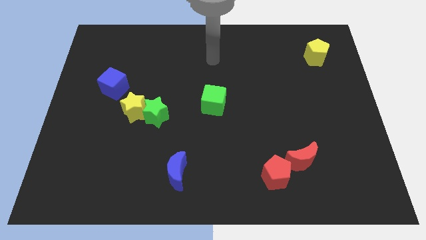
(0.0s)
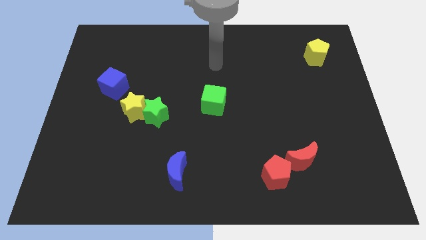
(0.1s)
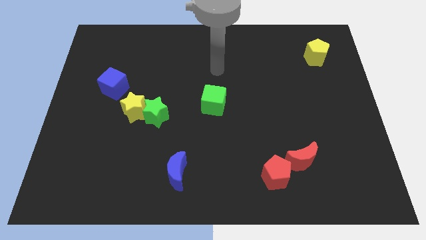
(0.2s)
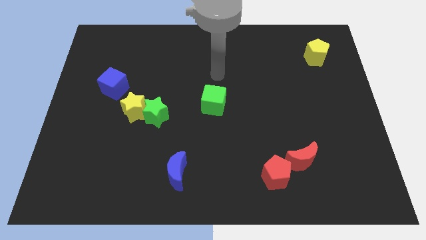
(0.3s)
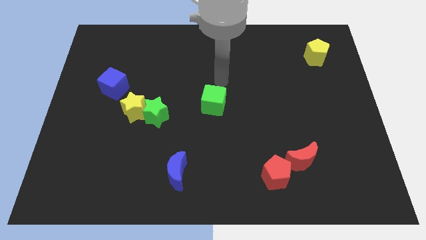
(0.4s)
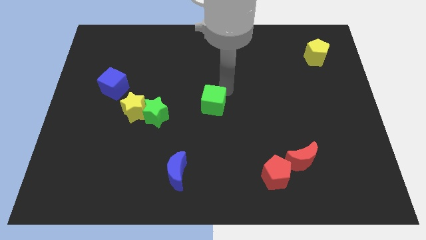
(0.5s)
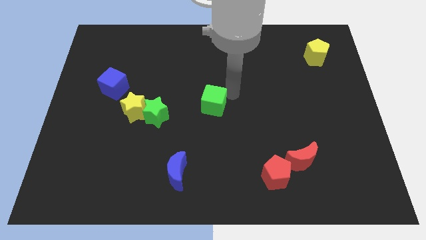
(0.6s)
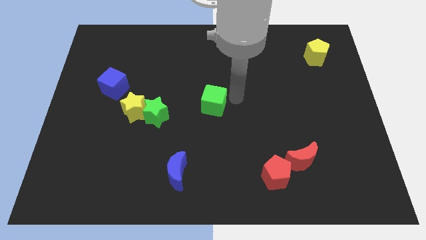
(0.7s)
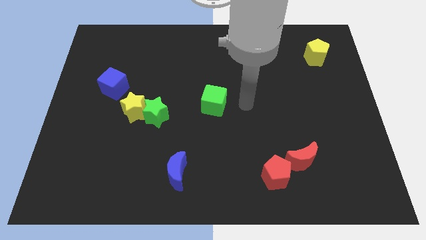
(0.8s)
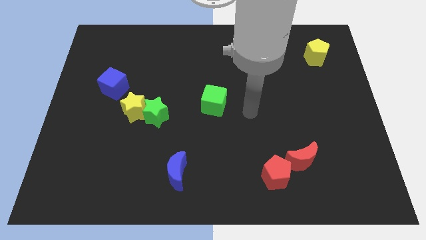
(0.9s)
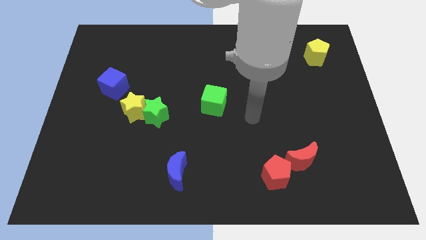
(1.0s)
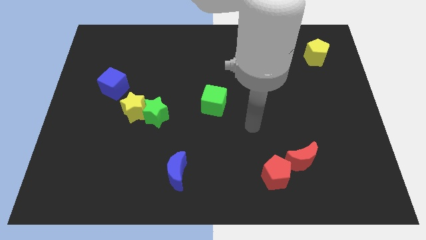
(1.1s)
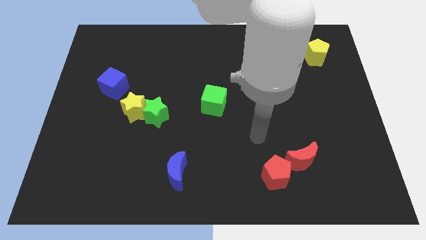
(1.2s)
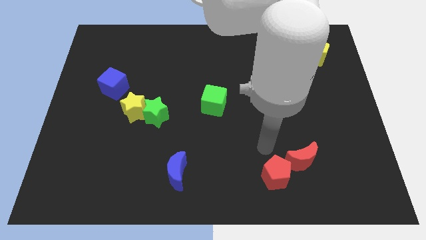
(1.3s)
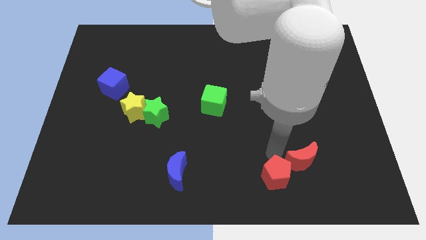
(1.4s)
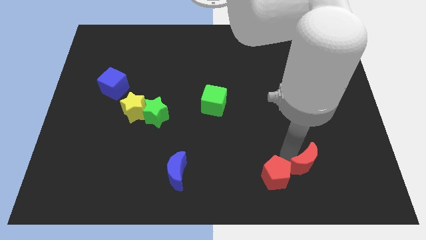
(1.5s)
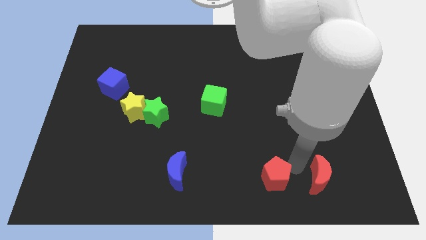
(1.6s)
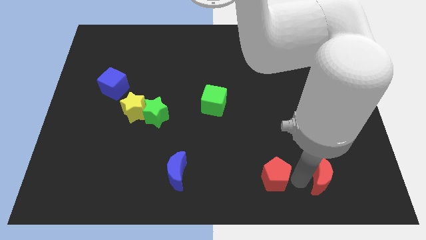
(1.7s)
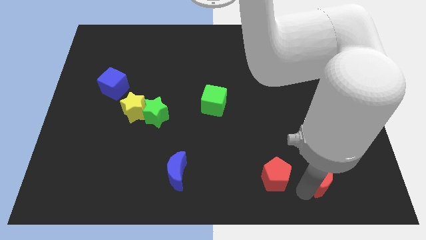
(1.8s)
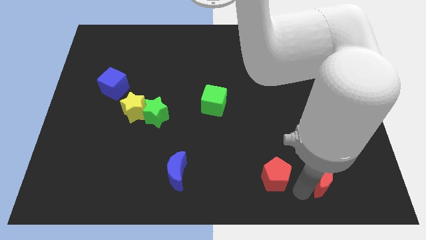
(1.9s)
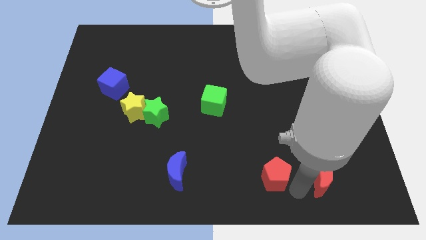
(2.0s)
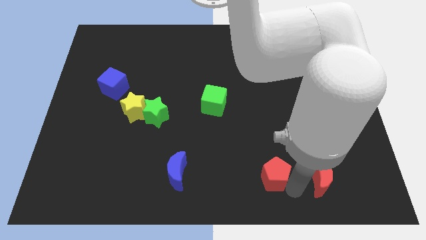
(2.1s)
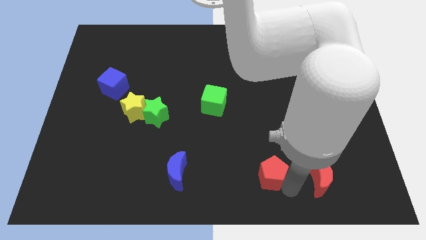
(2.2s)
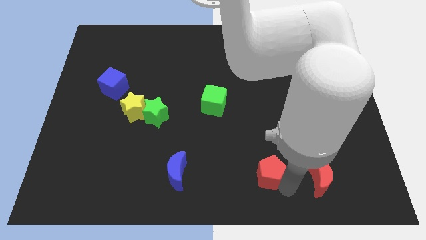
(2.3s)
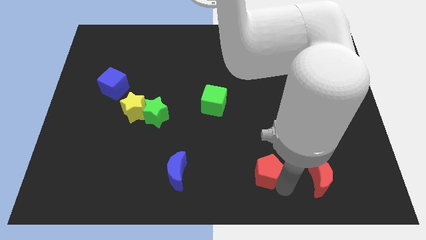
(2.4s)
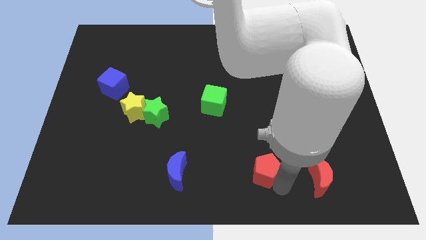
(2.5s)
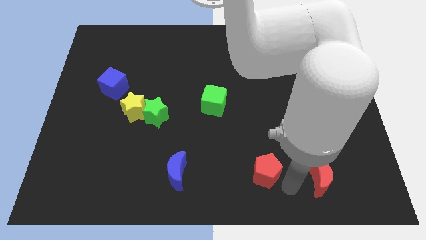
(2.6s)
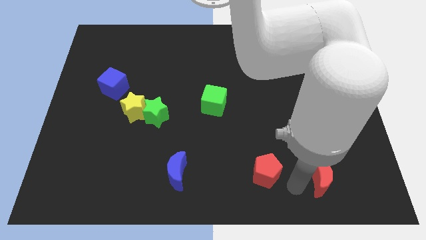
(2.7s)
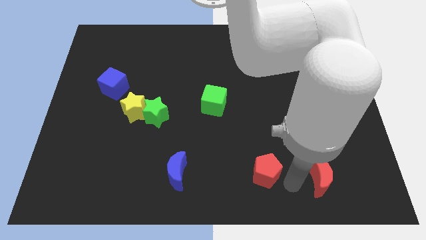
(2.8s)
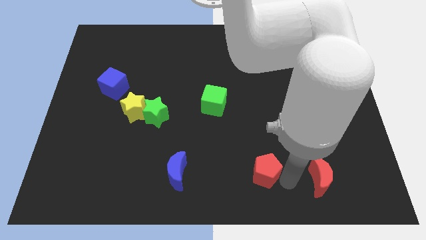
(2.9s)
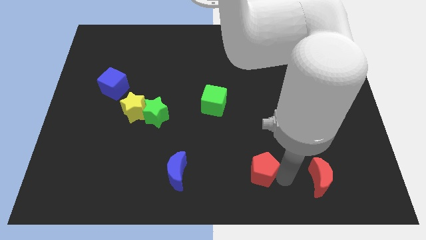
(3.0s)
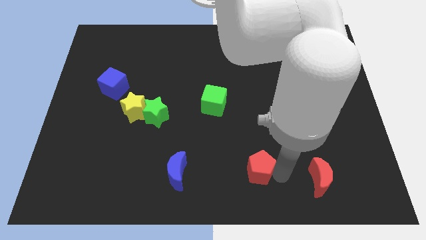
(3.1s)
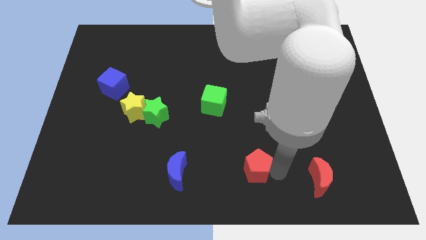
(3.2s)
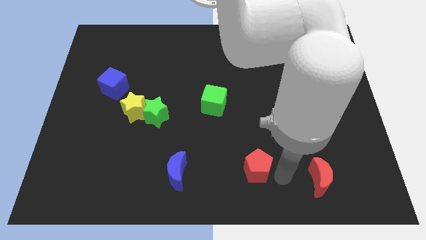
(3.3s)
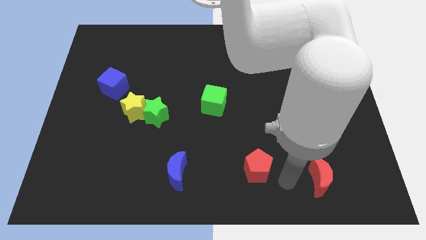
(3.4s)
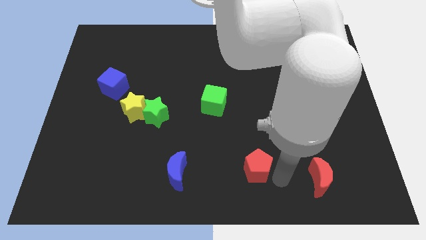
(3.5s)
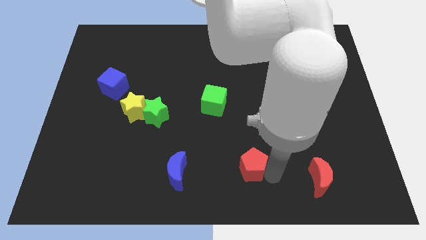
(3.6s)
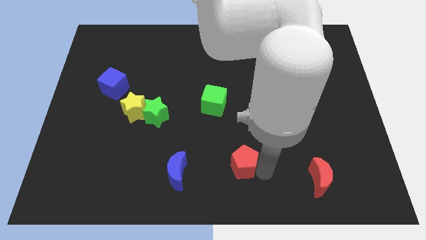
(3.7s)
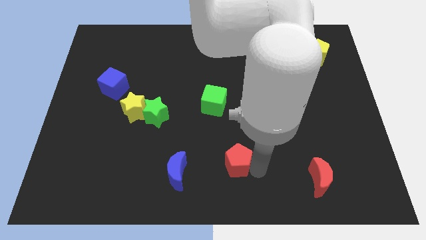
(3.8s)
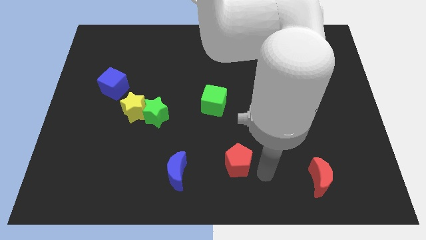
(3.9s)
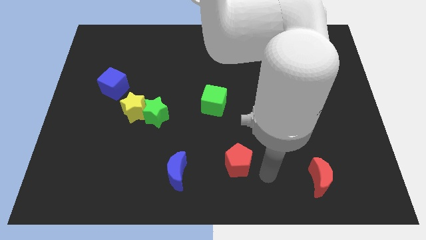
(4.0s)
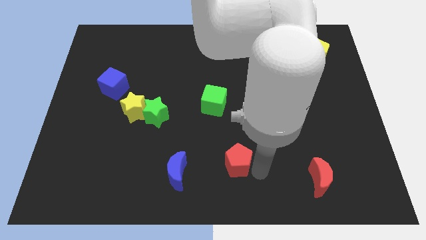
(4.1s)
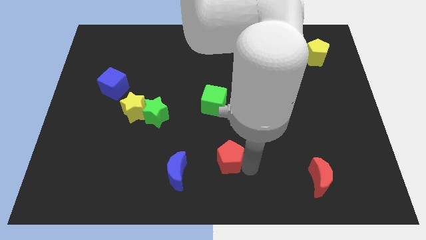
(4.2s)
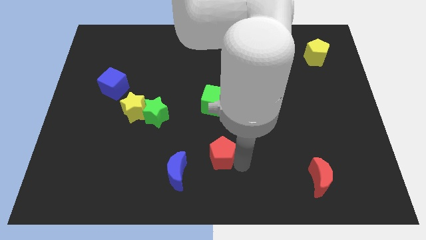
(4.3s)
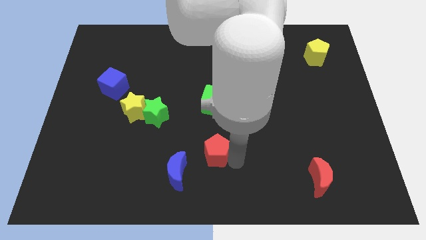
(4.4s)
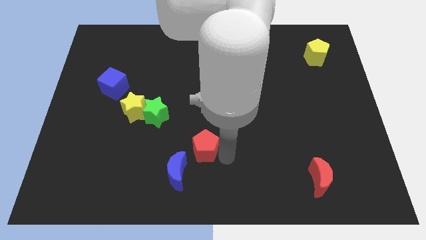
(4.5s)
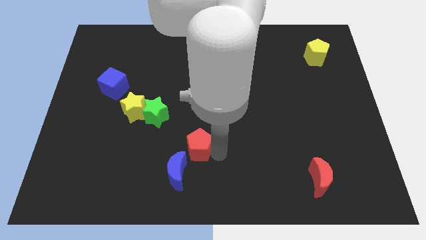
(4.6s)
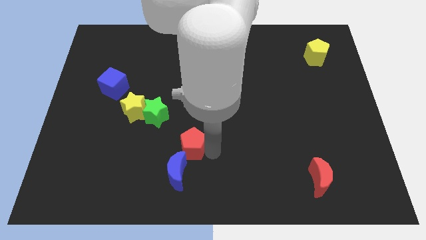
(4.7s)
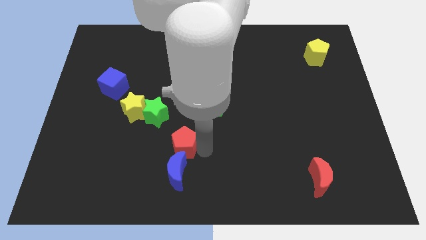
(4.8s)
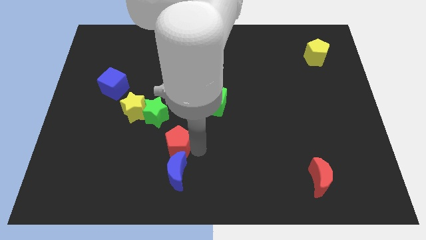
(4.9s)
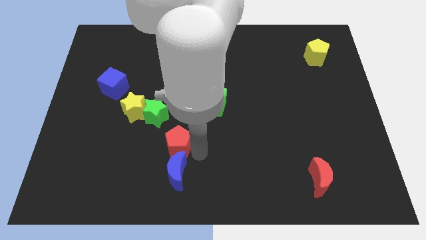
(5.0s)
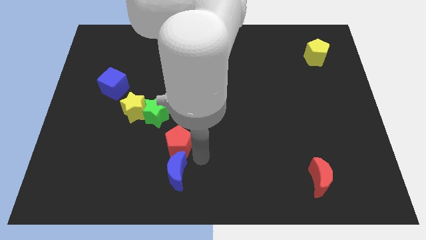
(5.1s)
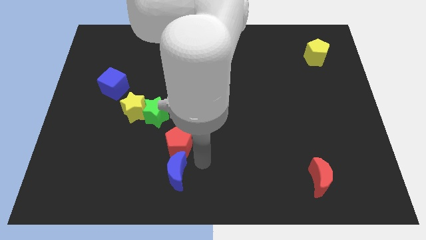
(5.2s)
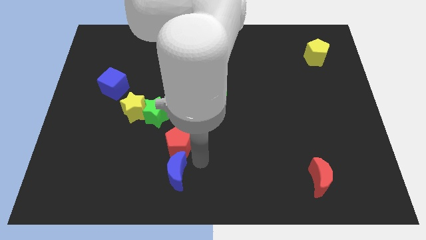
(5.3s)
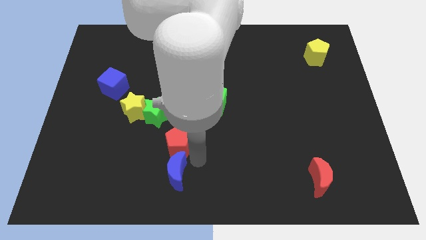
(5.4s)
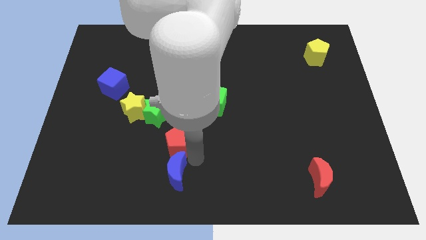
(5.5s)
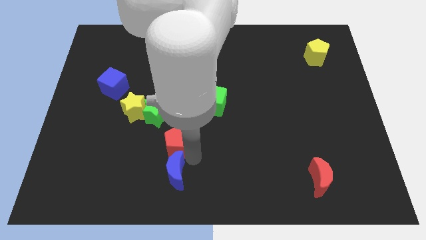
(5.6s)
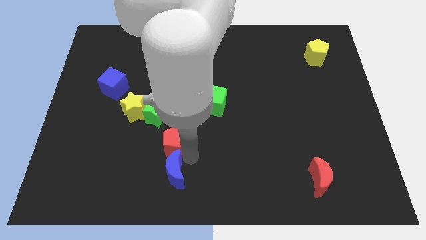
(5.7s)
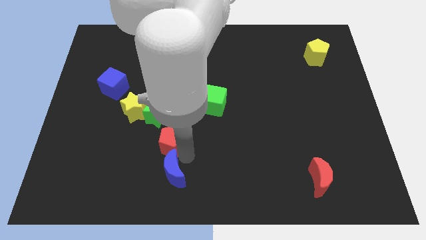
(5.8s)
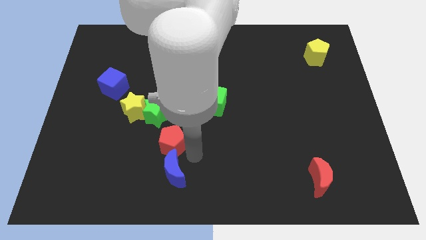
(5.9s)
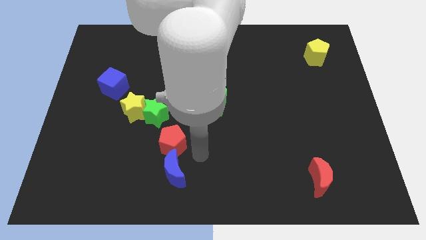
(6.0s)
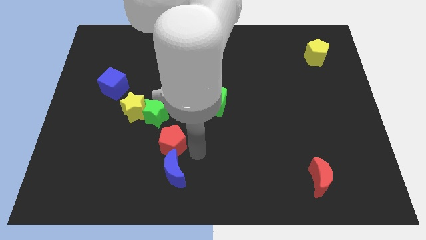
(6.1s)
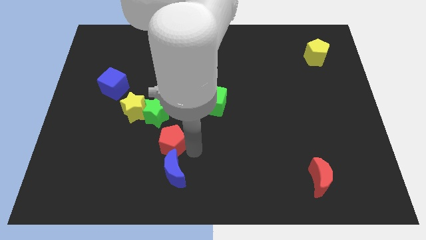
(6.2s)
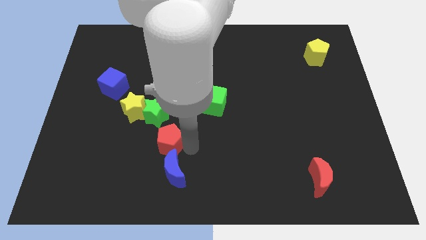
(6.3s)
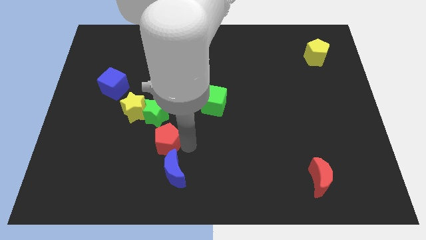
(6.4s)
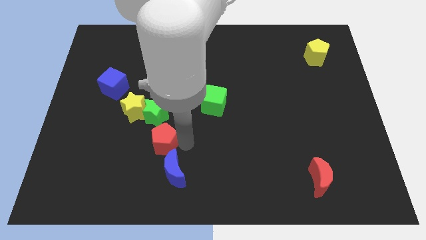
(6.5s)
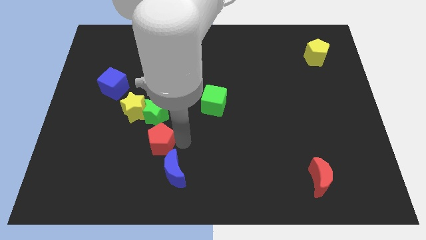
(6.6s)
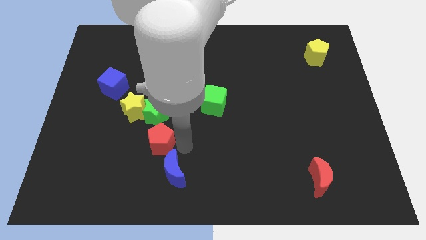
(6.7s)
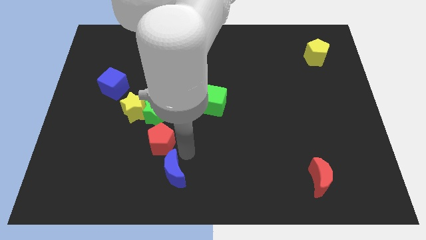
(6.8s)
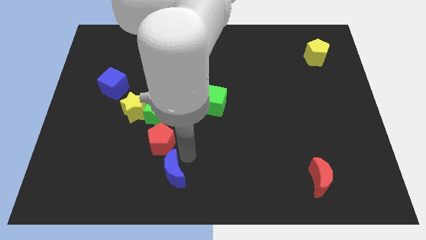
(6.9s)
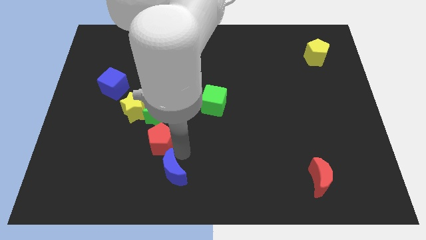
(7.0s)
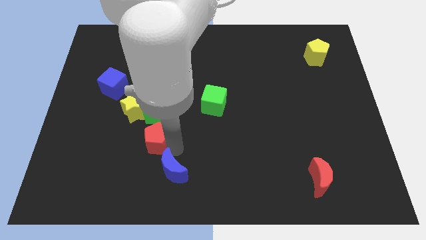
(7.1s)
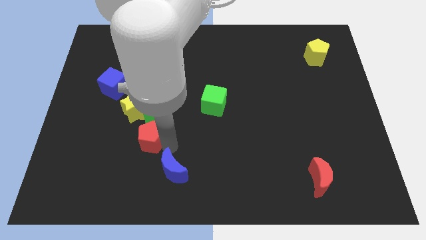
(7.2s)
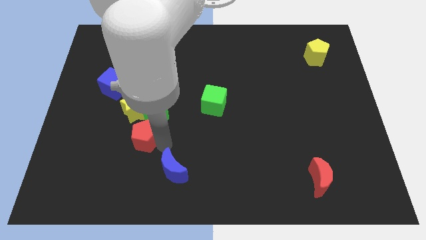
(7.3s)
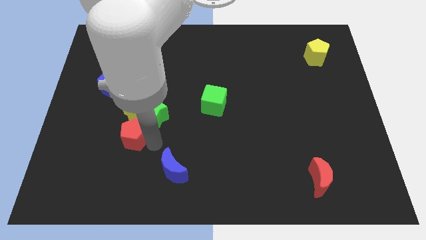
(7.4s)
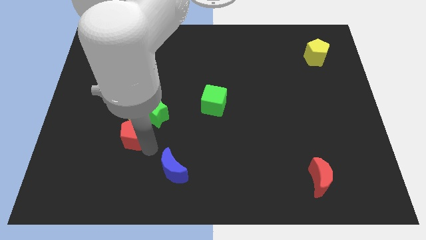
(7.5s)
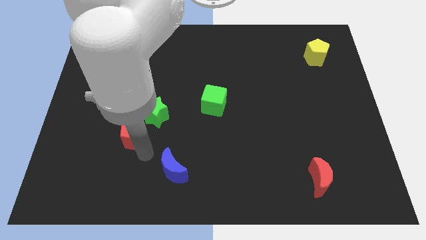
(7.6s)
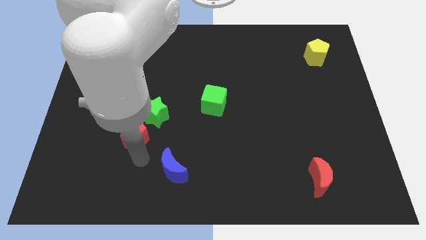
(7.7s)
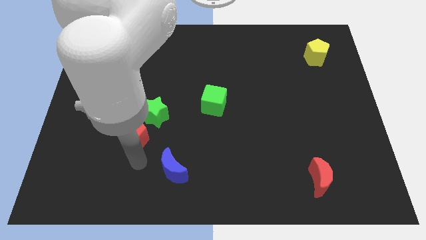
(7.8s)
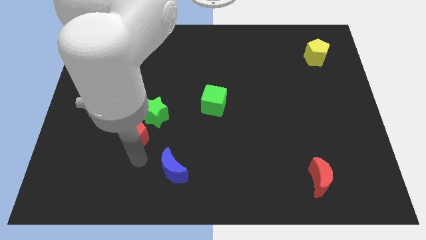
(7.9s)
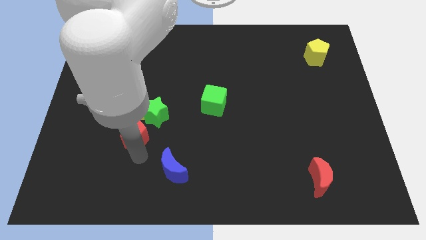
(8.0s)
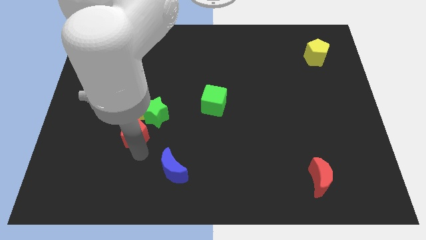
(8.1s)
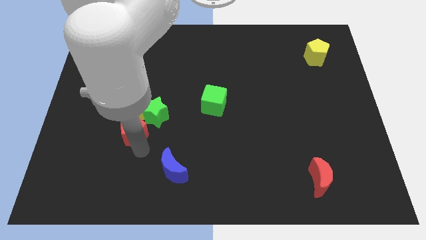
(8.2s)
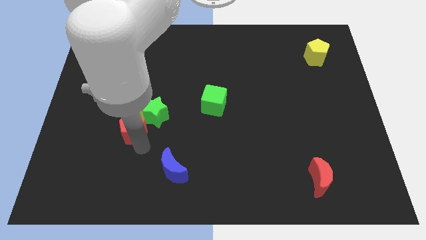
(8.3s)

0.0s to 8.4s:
push the red pentagon close to the yellow star
